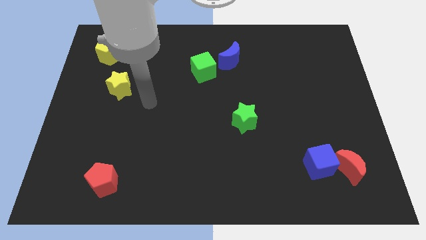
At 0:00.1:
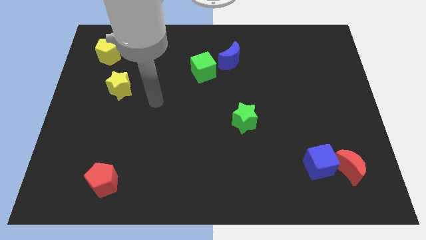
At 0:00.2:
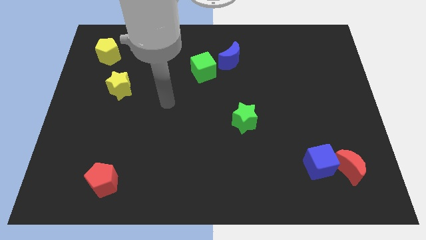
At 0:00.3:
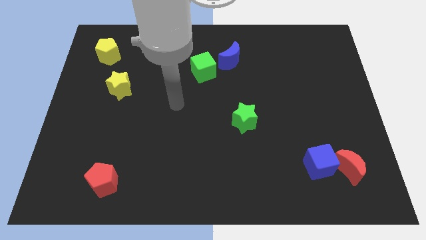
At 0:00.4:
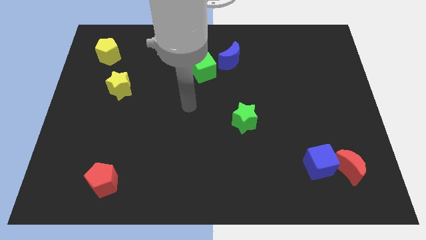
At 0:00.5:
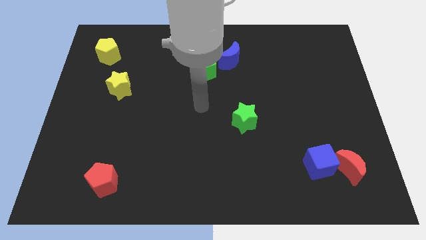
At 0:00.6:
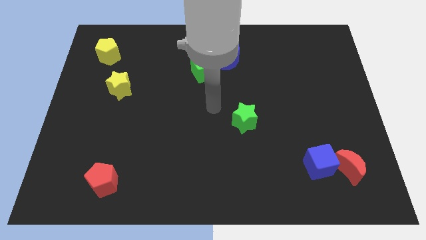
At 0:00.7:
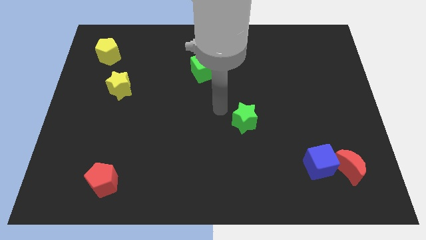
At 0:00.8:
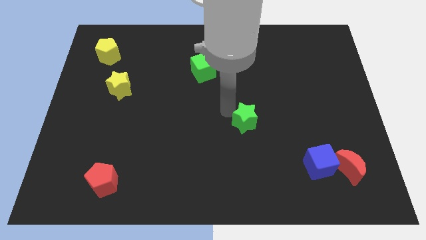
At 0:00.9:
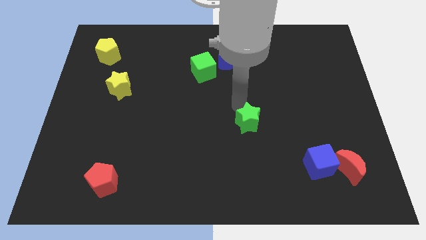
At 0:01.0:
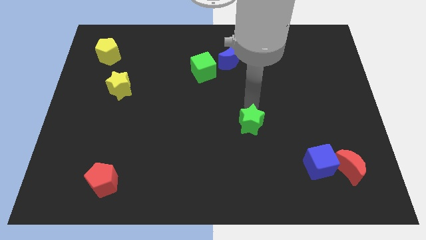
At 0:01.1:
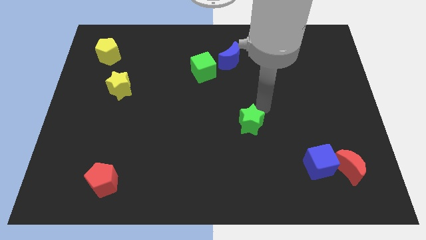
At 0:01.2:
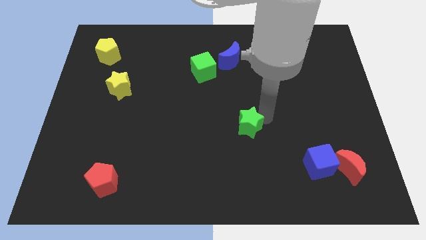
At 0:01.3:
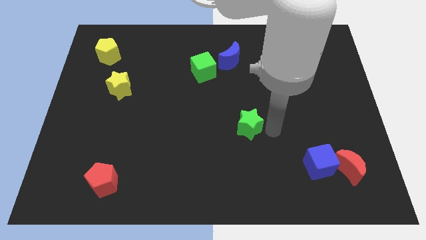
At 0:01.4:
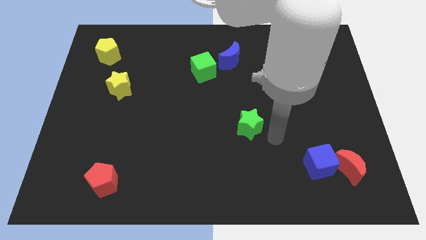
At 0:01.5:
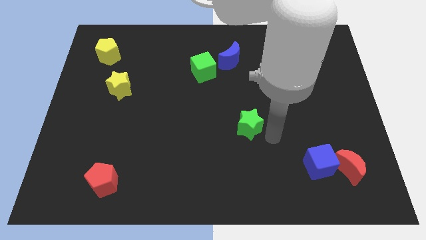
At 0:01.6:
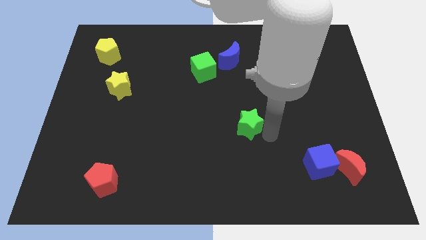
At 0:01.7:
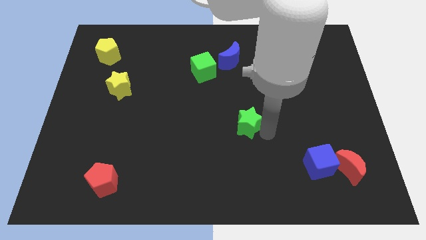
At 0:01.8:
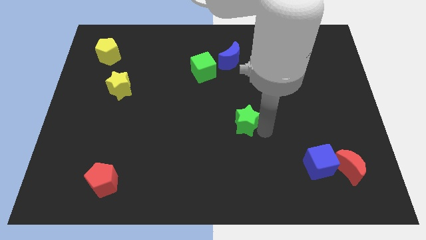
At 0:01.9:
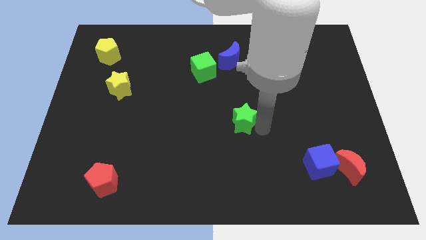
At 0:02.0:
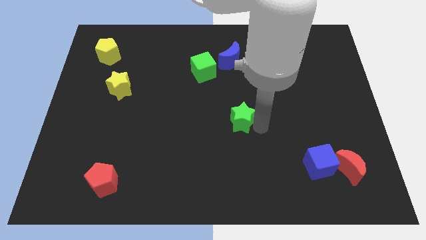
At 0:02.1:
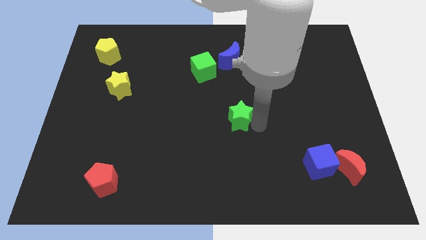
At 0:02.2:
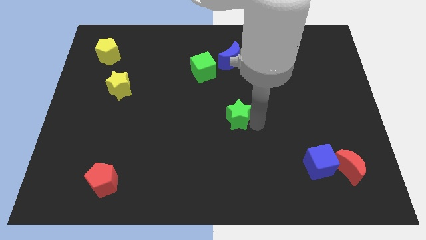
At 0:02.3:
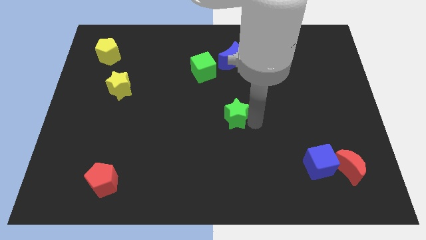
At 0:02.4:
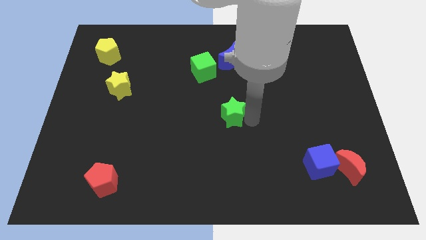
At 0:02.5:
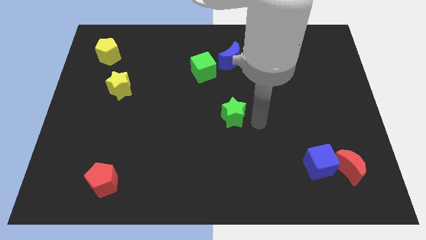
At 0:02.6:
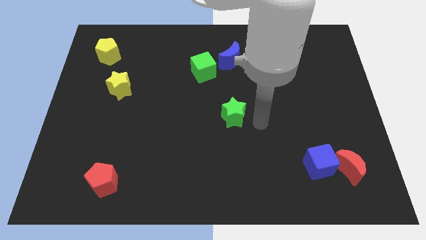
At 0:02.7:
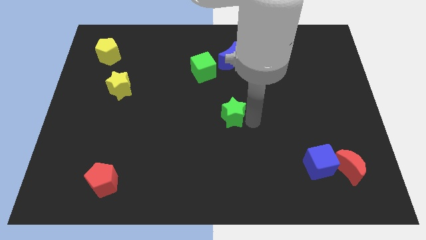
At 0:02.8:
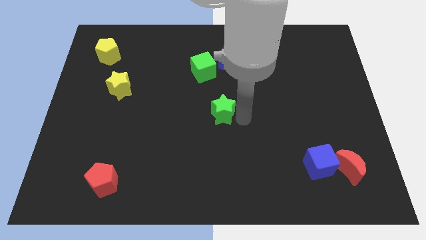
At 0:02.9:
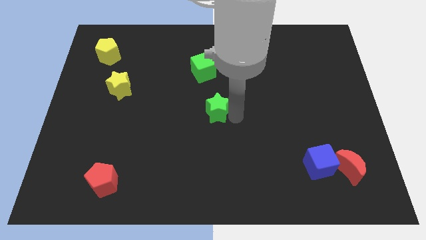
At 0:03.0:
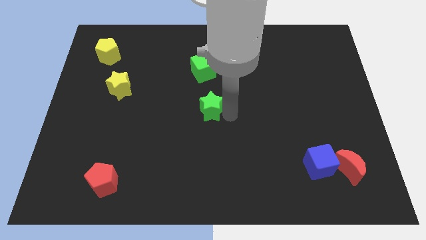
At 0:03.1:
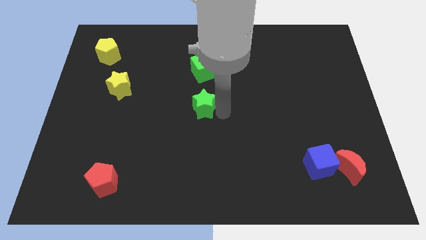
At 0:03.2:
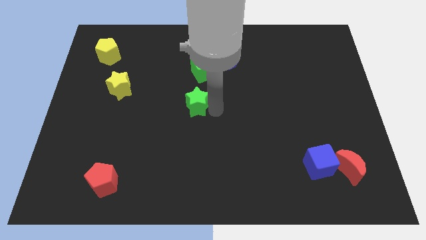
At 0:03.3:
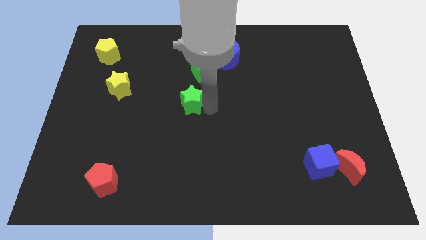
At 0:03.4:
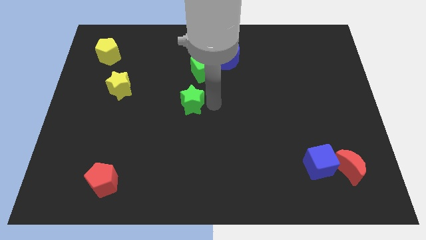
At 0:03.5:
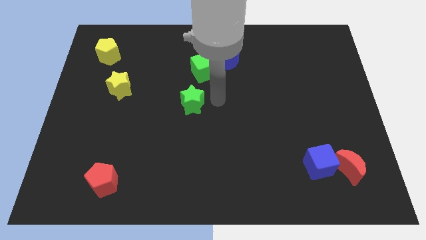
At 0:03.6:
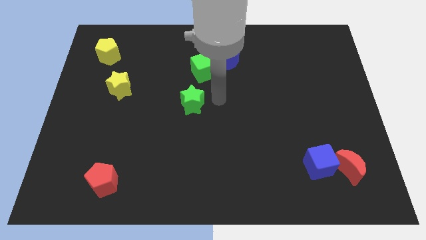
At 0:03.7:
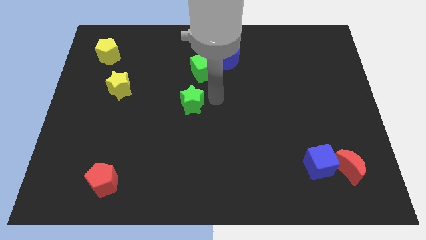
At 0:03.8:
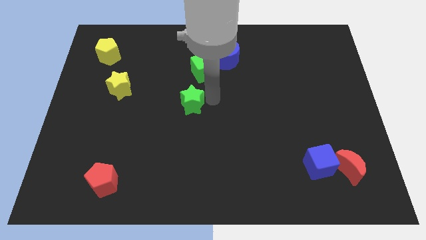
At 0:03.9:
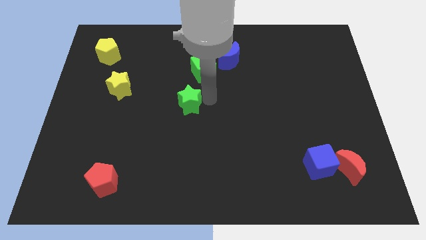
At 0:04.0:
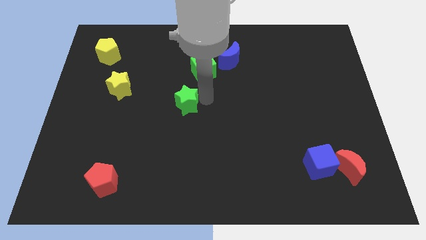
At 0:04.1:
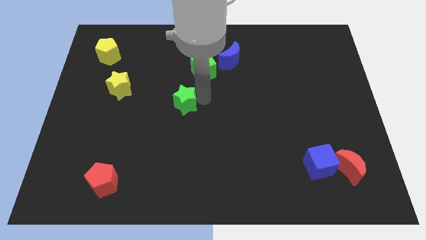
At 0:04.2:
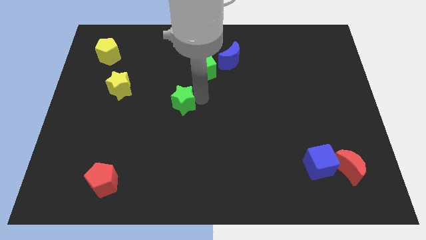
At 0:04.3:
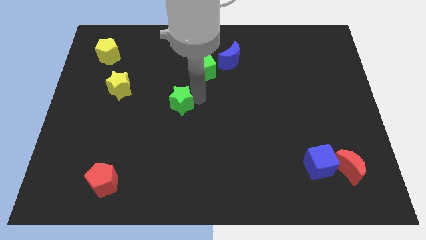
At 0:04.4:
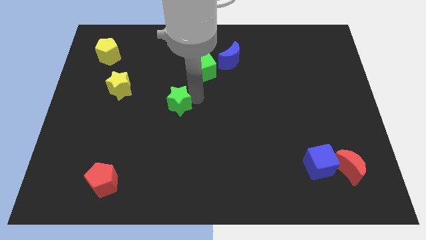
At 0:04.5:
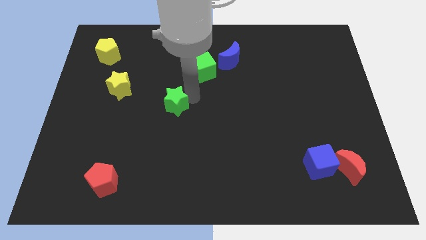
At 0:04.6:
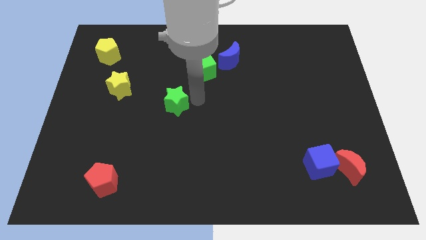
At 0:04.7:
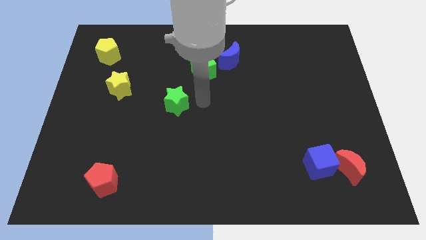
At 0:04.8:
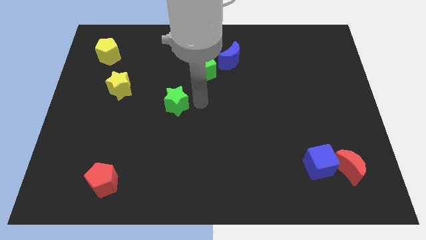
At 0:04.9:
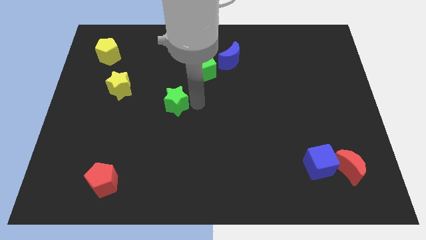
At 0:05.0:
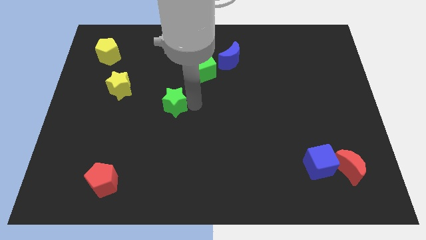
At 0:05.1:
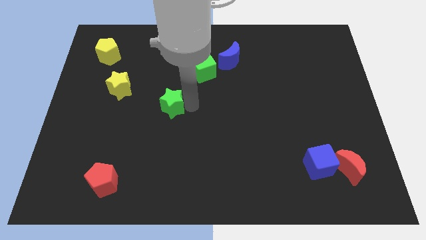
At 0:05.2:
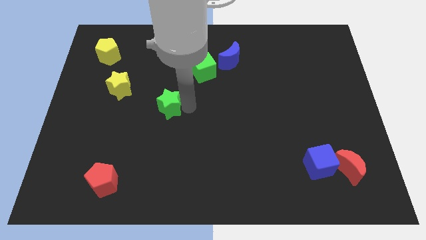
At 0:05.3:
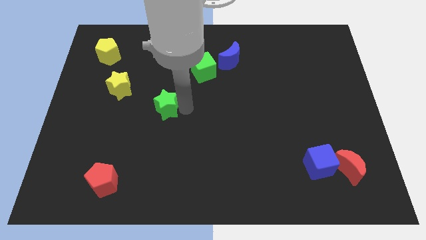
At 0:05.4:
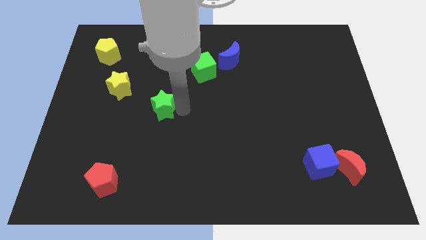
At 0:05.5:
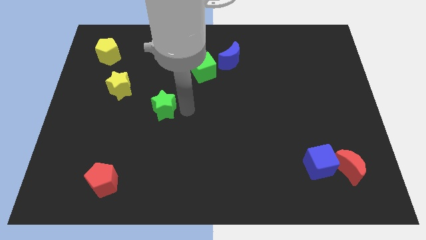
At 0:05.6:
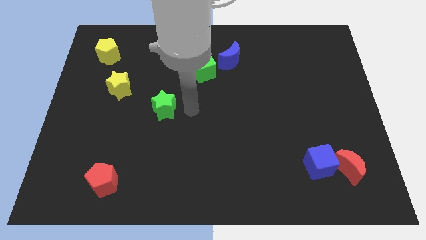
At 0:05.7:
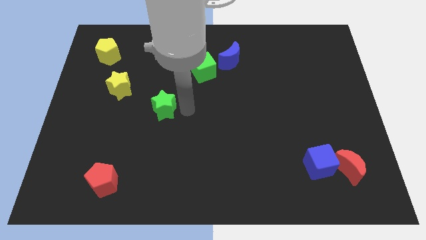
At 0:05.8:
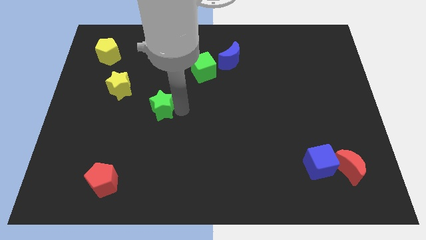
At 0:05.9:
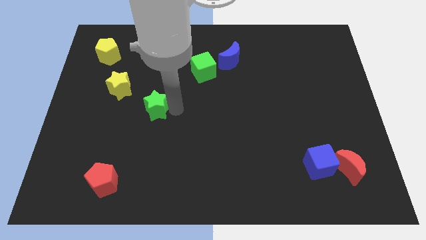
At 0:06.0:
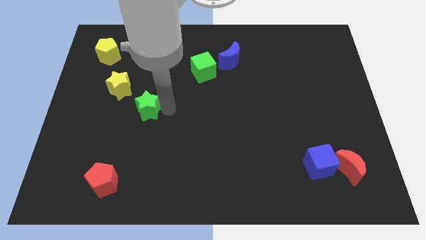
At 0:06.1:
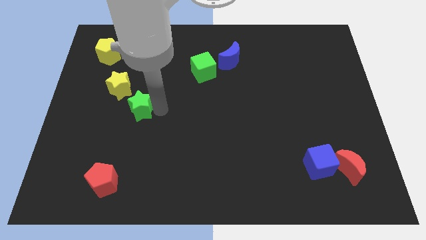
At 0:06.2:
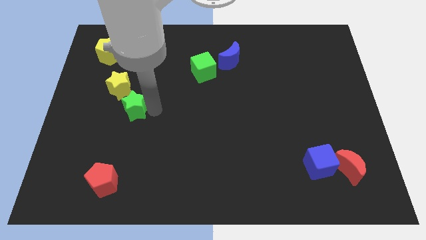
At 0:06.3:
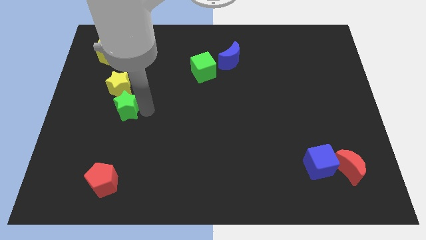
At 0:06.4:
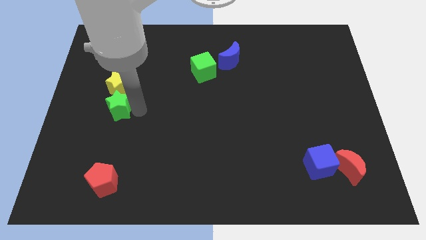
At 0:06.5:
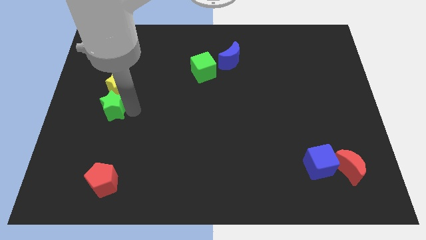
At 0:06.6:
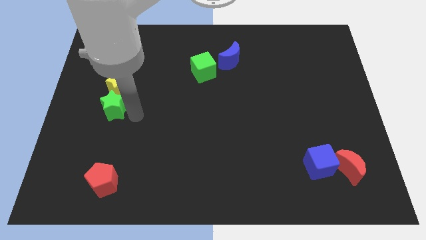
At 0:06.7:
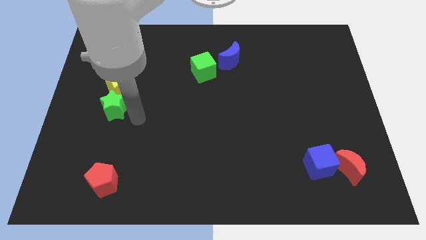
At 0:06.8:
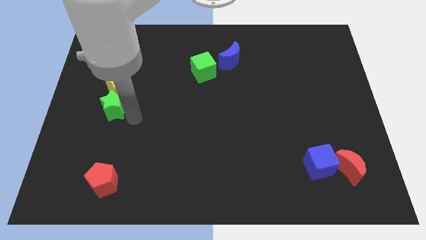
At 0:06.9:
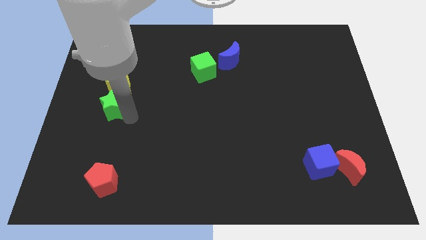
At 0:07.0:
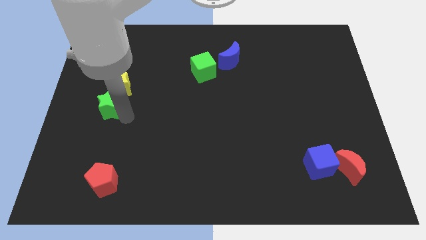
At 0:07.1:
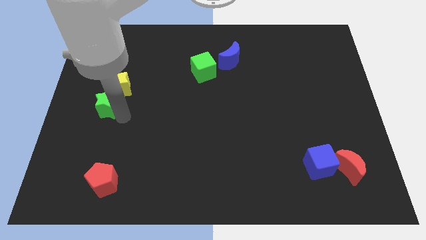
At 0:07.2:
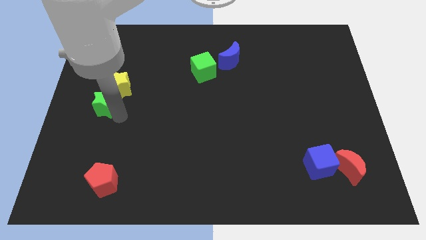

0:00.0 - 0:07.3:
move the green star to the left side of the board
